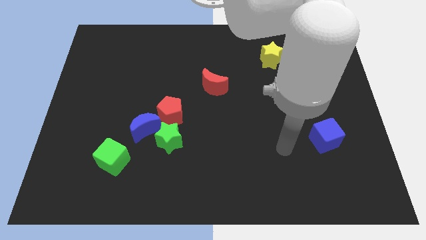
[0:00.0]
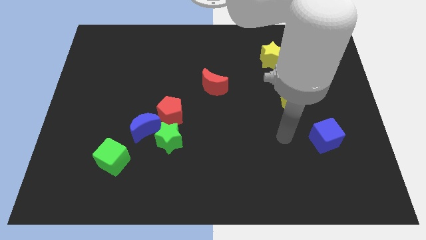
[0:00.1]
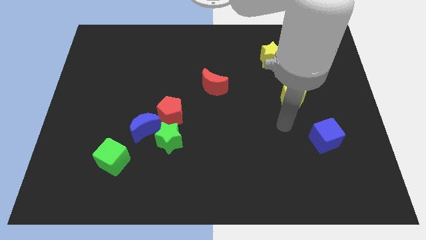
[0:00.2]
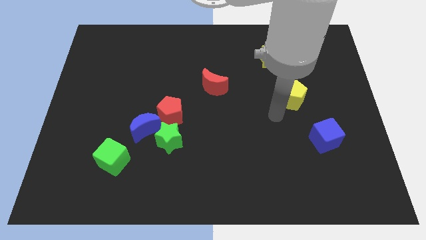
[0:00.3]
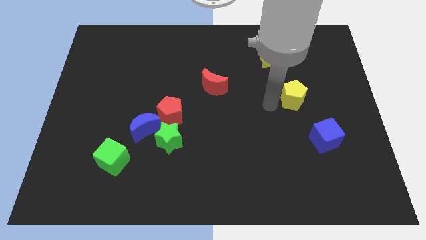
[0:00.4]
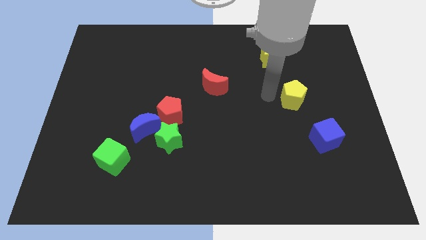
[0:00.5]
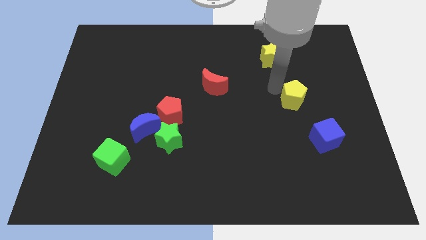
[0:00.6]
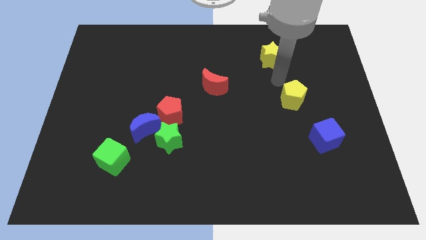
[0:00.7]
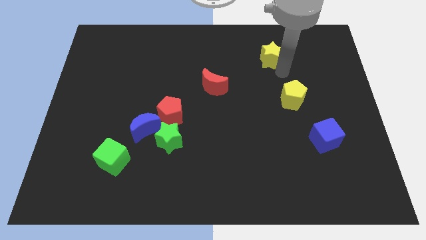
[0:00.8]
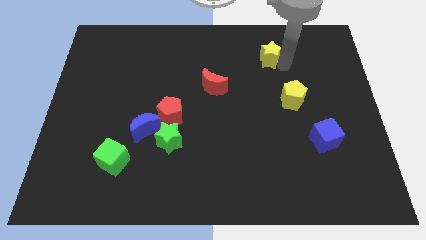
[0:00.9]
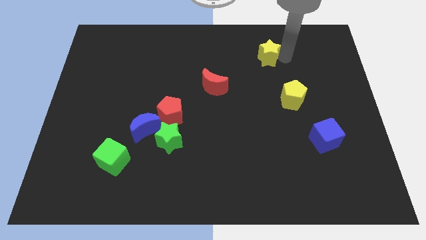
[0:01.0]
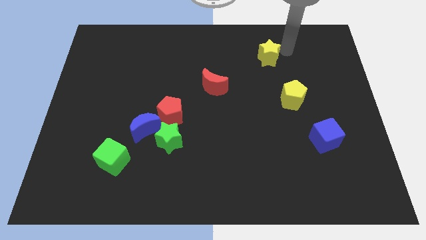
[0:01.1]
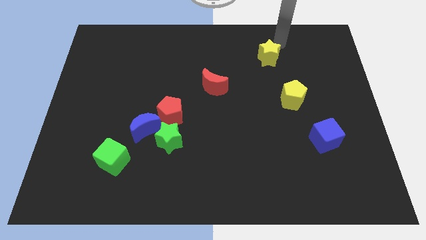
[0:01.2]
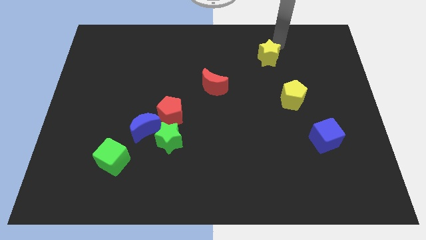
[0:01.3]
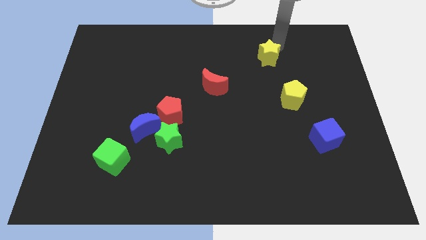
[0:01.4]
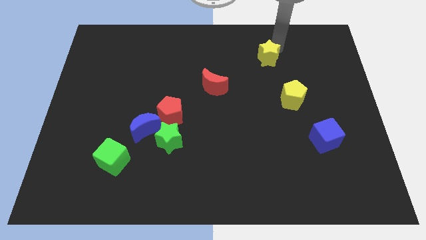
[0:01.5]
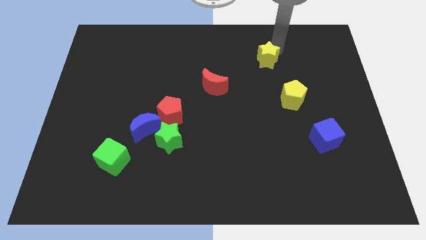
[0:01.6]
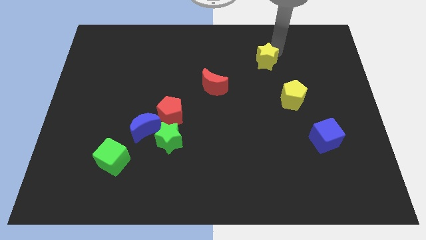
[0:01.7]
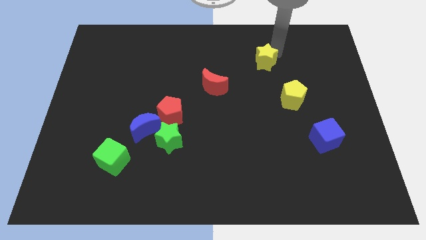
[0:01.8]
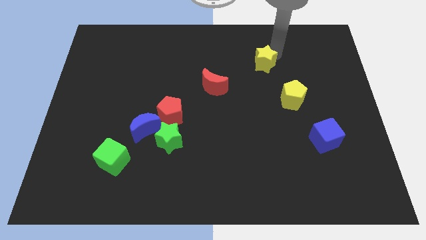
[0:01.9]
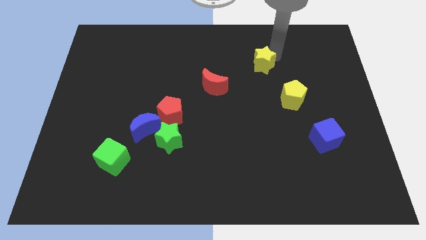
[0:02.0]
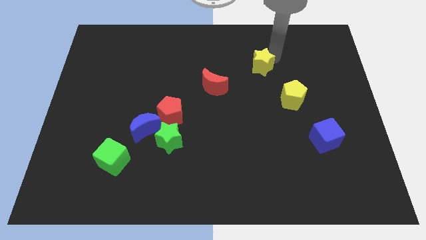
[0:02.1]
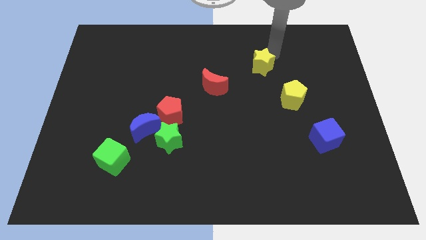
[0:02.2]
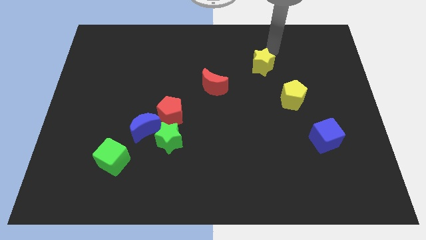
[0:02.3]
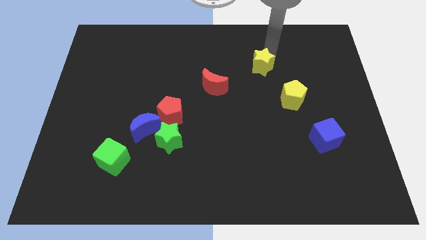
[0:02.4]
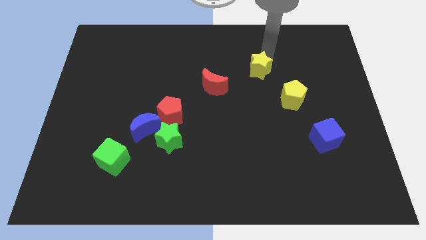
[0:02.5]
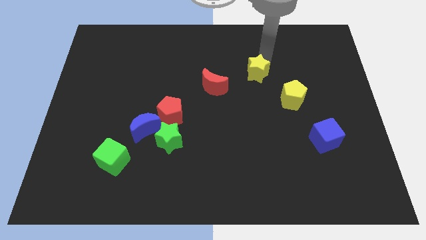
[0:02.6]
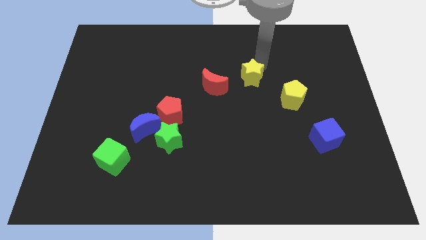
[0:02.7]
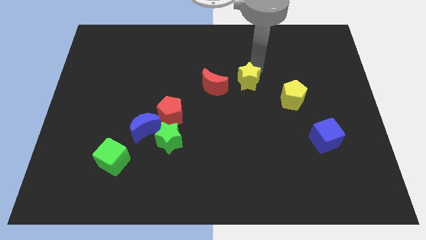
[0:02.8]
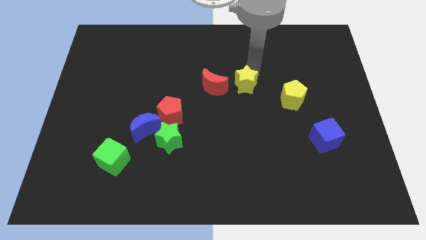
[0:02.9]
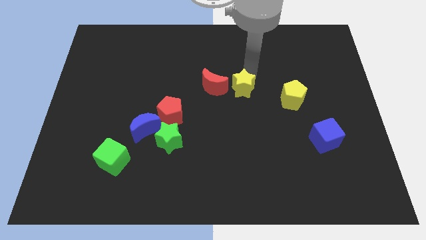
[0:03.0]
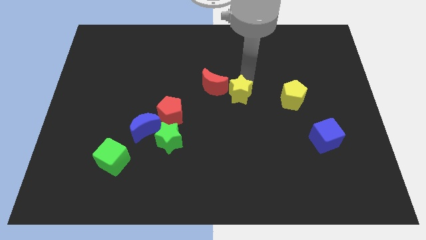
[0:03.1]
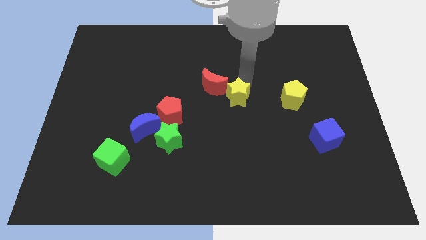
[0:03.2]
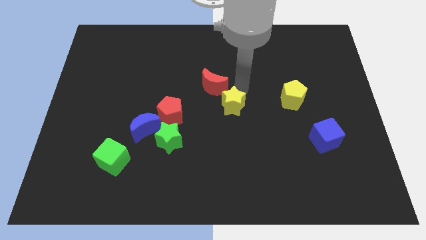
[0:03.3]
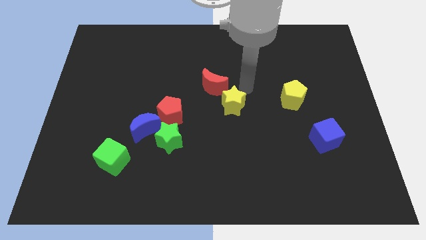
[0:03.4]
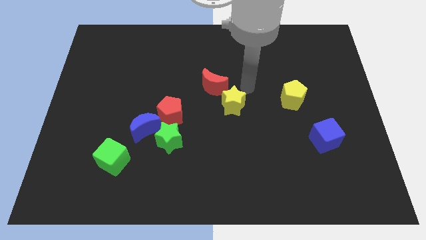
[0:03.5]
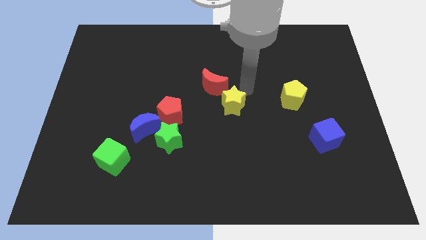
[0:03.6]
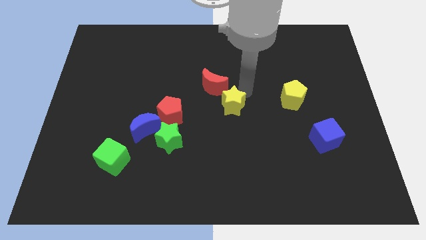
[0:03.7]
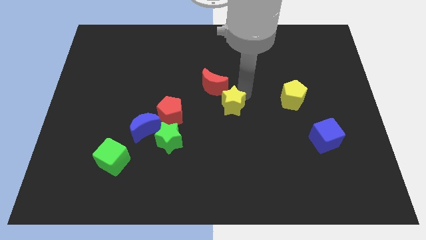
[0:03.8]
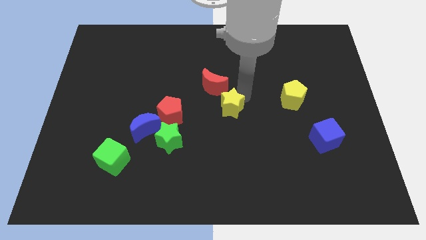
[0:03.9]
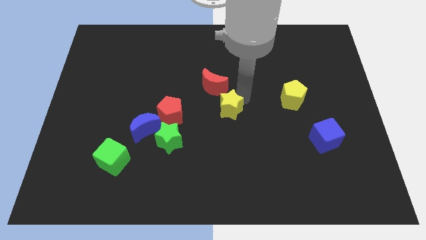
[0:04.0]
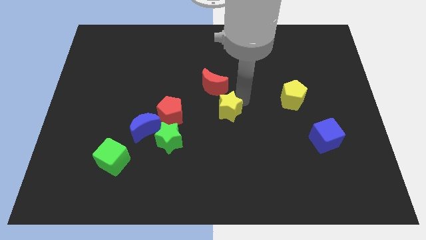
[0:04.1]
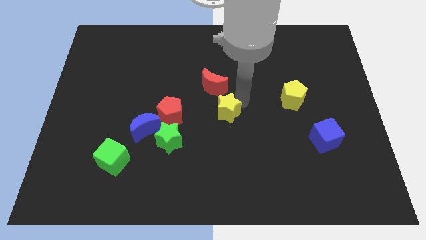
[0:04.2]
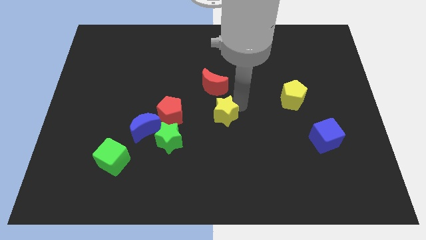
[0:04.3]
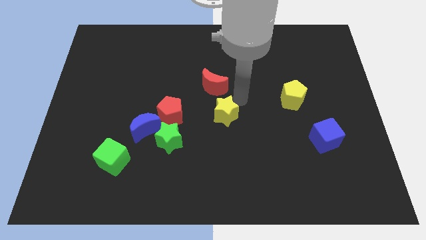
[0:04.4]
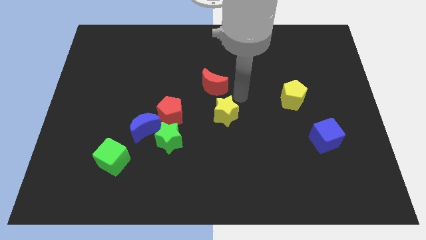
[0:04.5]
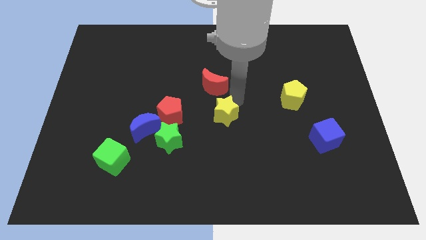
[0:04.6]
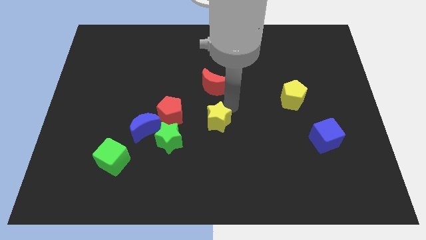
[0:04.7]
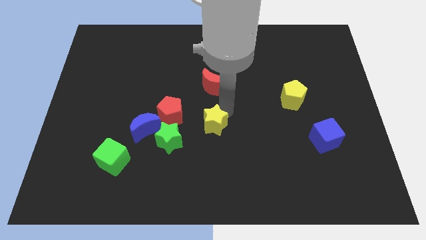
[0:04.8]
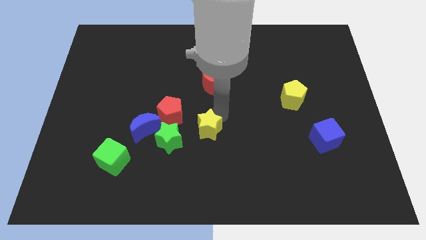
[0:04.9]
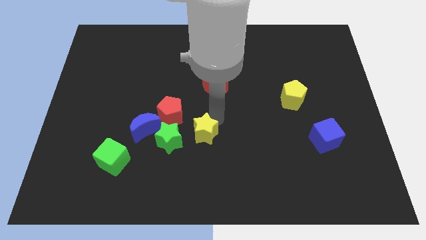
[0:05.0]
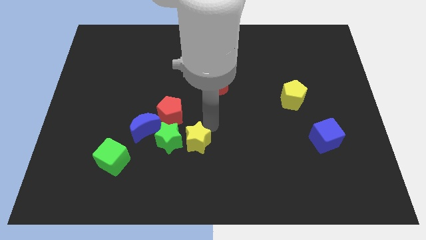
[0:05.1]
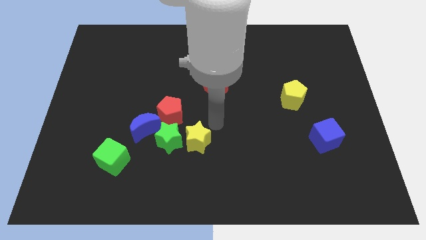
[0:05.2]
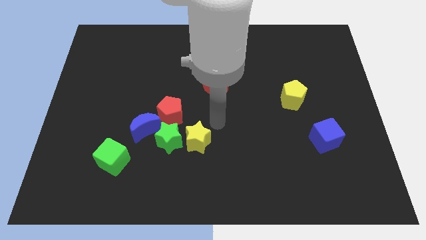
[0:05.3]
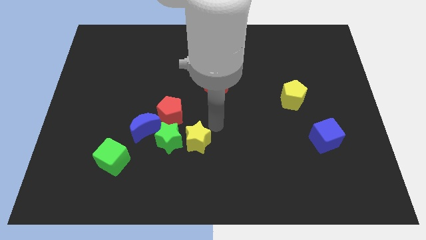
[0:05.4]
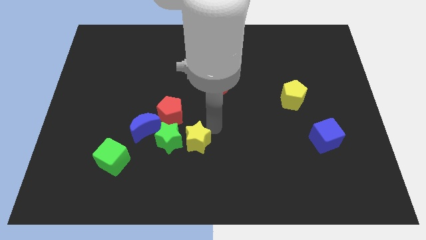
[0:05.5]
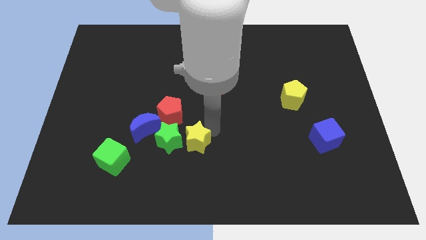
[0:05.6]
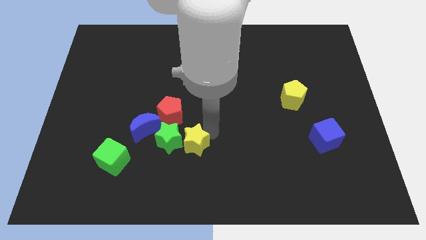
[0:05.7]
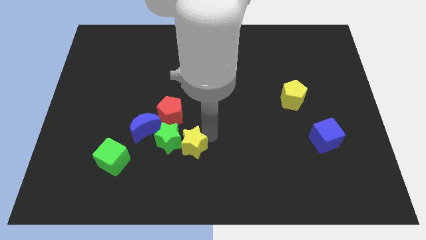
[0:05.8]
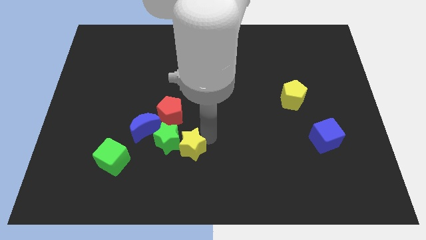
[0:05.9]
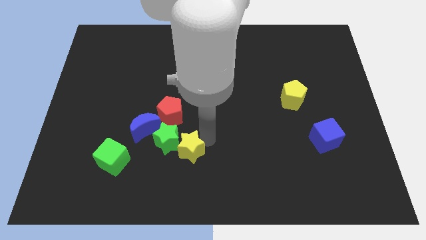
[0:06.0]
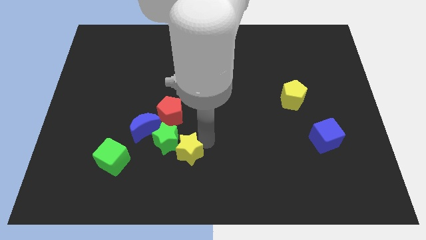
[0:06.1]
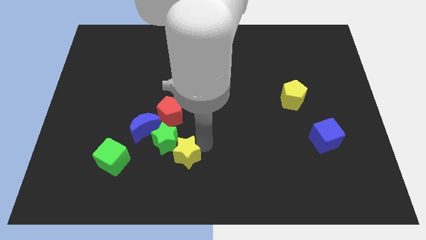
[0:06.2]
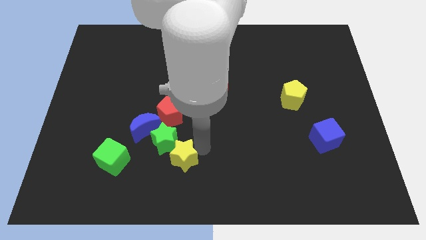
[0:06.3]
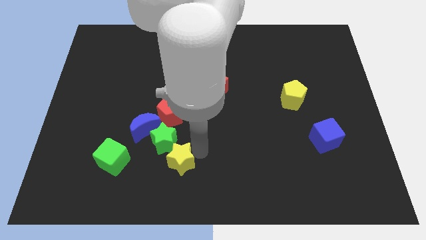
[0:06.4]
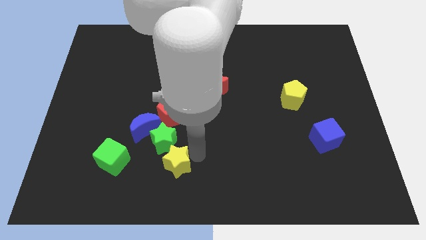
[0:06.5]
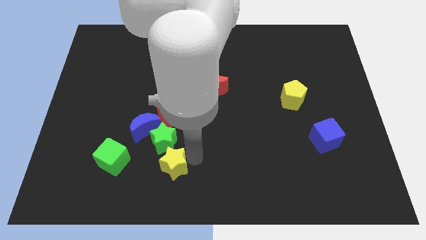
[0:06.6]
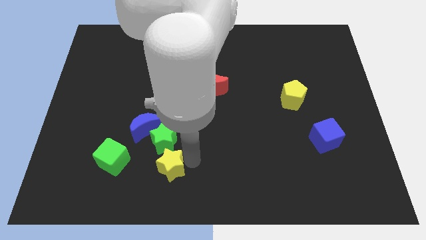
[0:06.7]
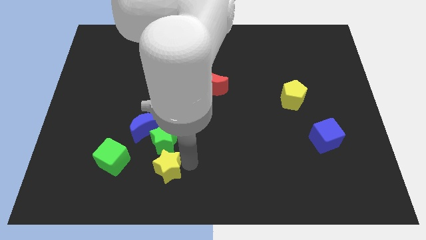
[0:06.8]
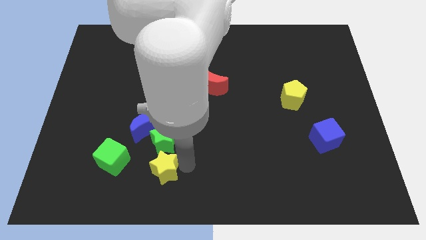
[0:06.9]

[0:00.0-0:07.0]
push the yellow star to the bottom left of the green star

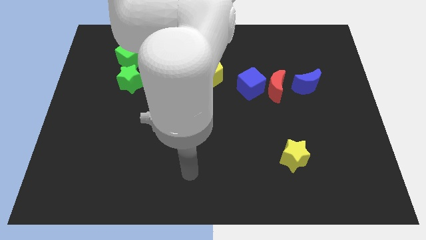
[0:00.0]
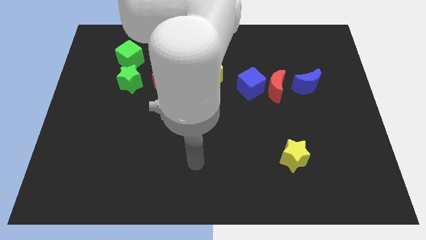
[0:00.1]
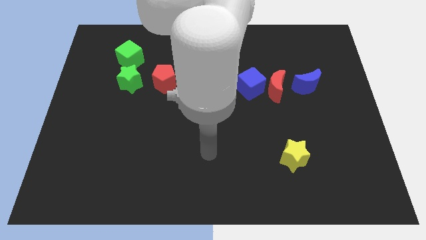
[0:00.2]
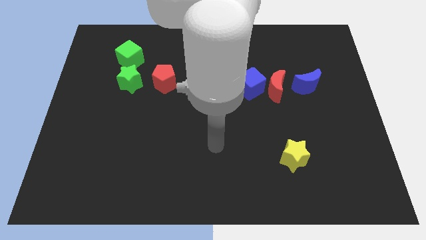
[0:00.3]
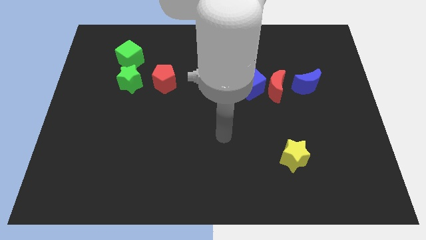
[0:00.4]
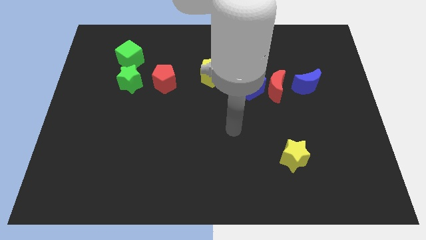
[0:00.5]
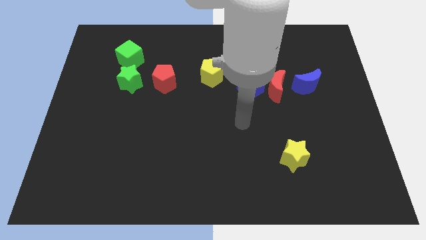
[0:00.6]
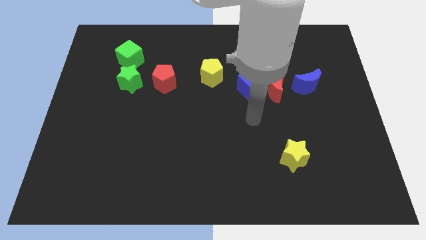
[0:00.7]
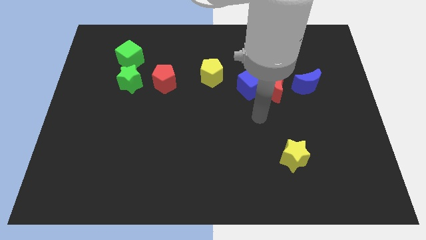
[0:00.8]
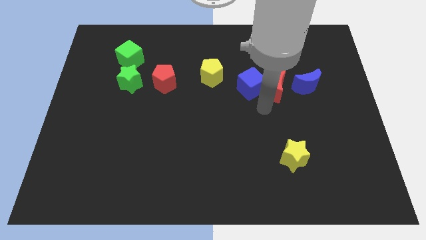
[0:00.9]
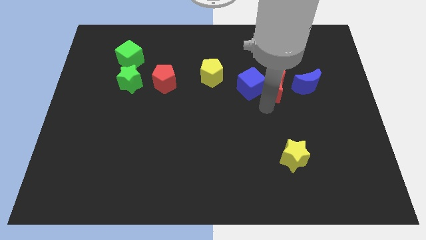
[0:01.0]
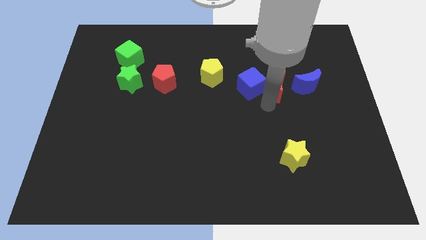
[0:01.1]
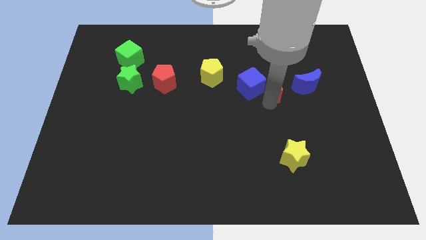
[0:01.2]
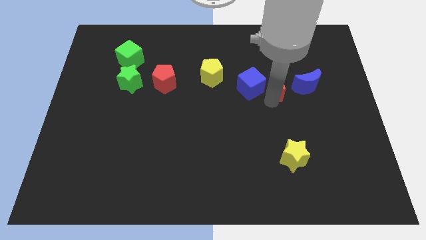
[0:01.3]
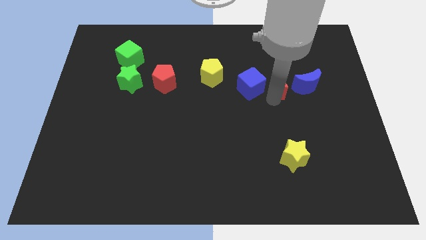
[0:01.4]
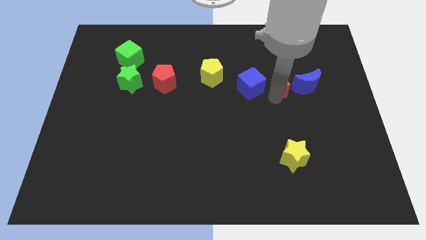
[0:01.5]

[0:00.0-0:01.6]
move the red moon to the top left side of the blue moon
